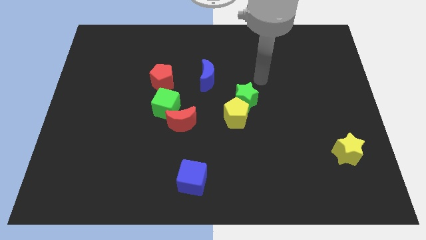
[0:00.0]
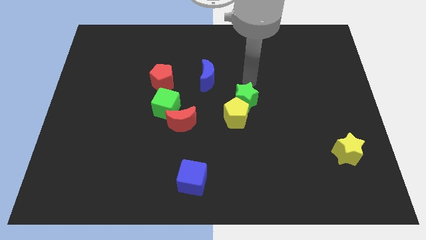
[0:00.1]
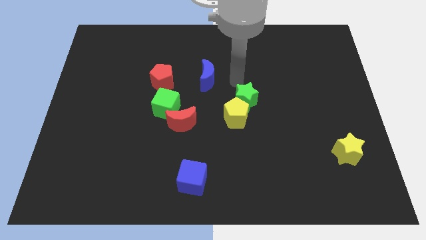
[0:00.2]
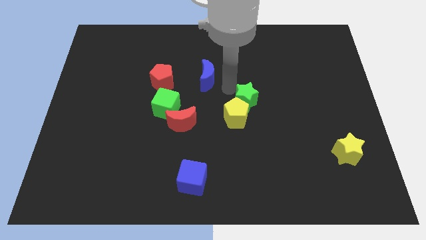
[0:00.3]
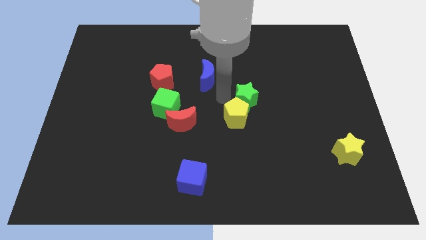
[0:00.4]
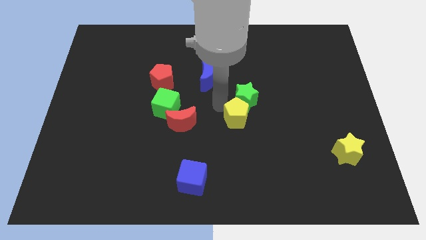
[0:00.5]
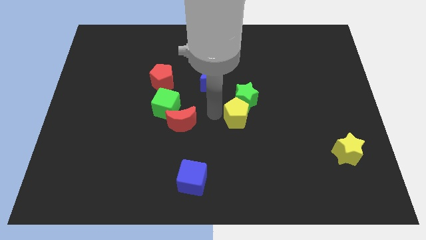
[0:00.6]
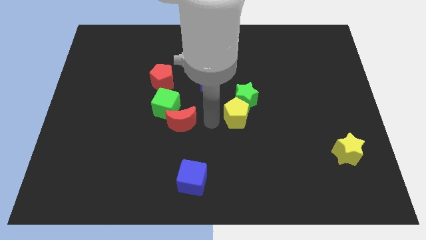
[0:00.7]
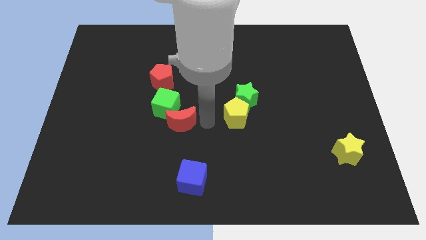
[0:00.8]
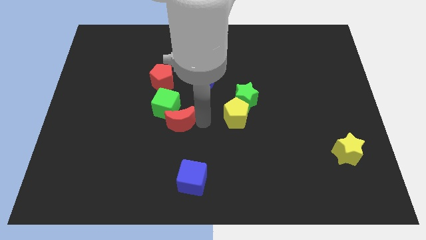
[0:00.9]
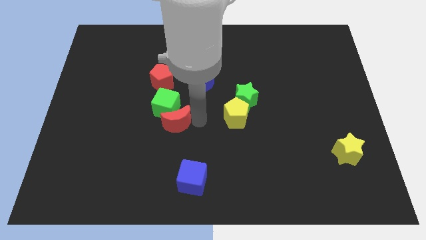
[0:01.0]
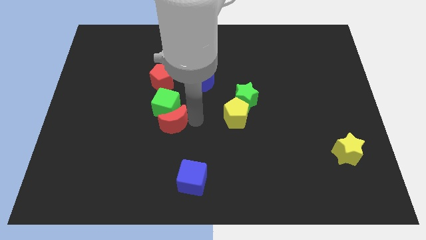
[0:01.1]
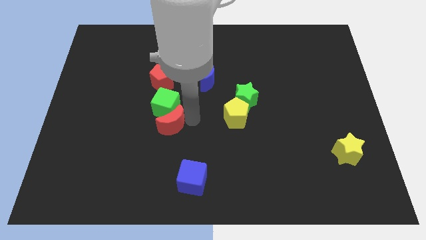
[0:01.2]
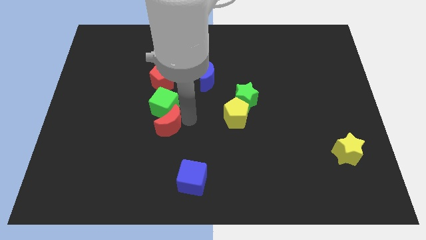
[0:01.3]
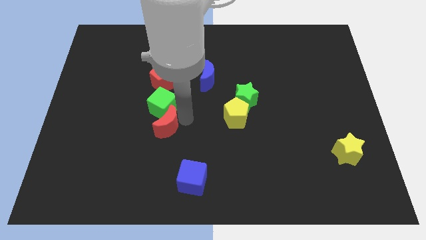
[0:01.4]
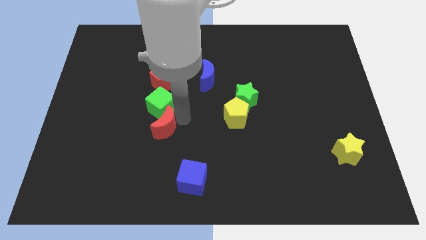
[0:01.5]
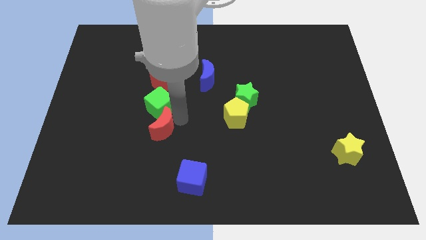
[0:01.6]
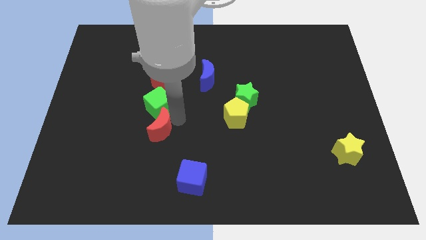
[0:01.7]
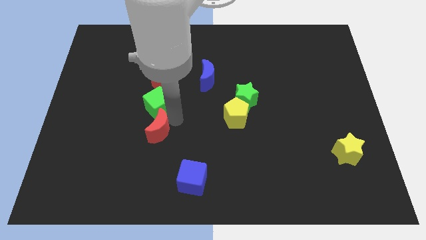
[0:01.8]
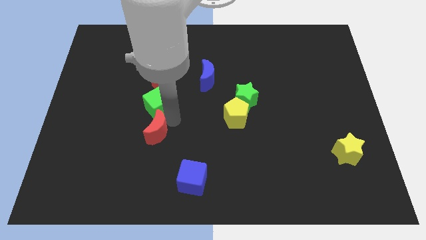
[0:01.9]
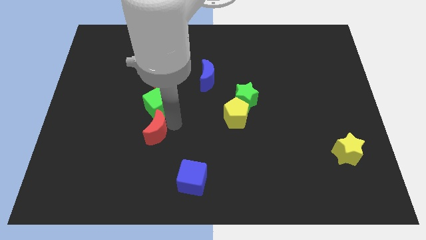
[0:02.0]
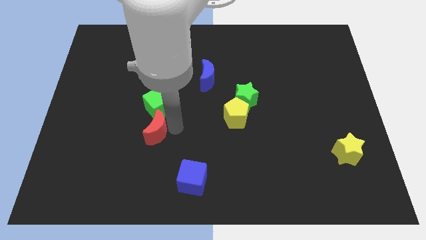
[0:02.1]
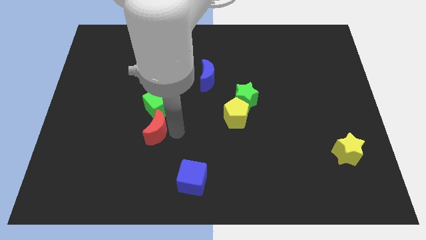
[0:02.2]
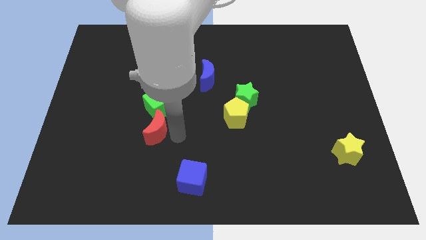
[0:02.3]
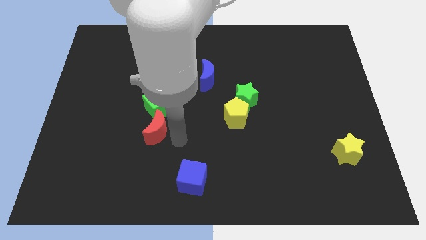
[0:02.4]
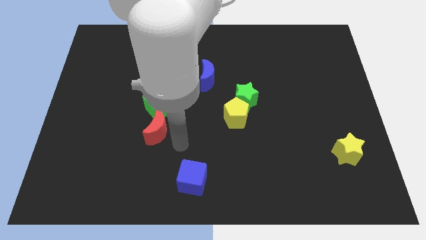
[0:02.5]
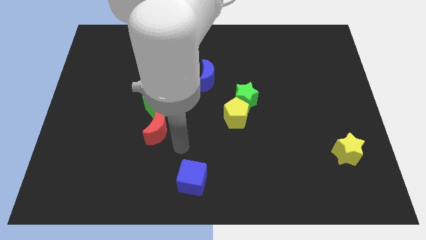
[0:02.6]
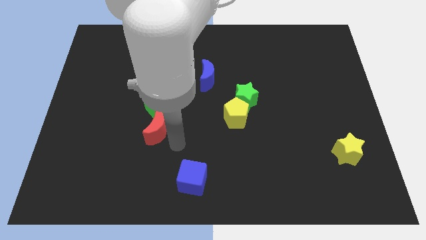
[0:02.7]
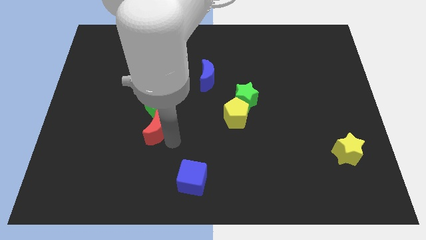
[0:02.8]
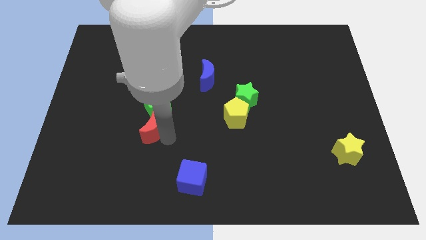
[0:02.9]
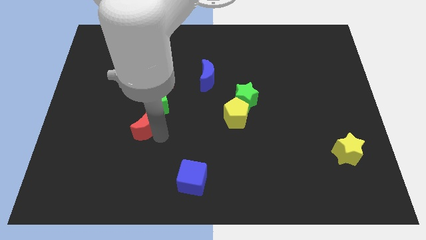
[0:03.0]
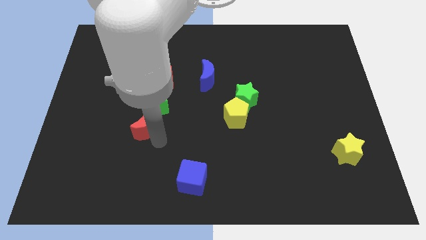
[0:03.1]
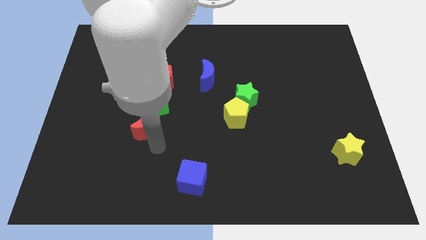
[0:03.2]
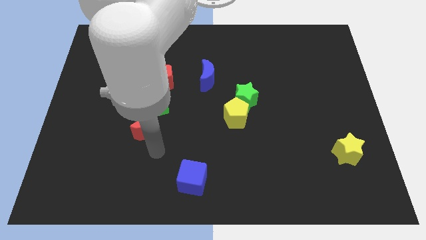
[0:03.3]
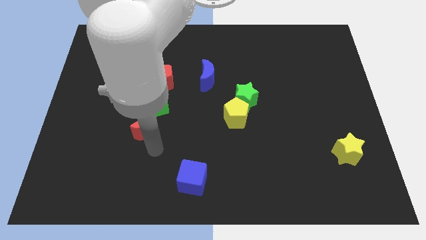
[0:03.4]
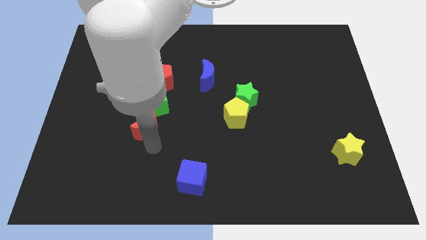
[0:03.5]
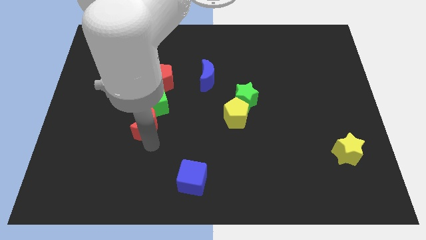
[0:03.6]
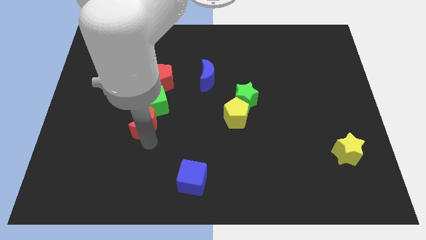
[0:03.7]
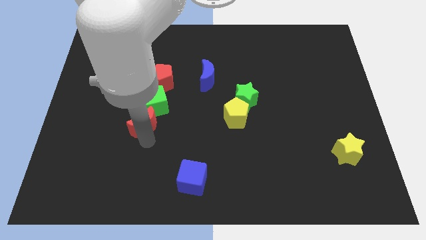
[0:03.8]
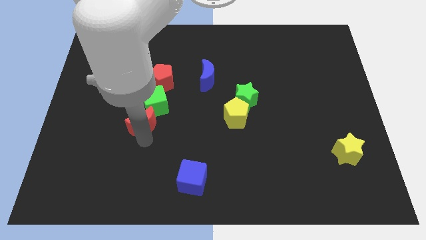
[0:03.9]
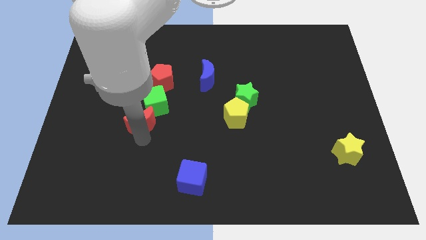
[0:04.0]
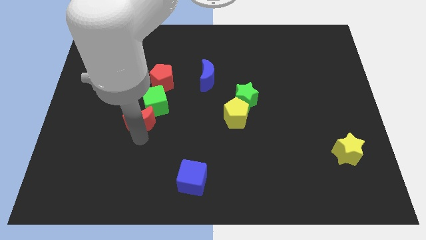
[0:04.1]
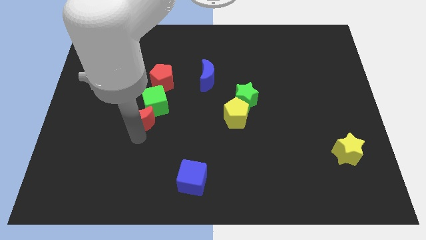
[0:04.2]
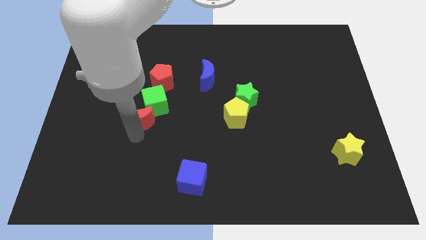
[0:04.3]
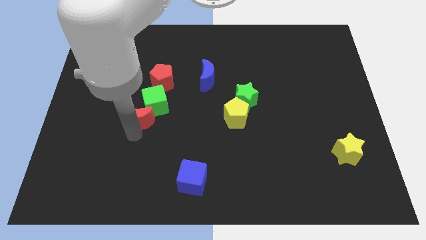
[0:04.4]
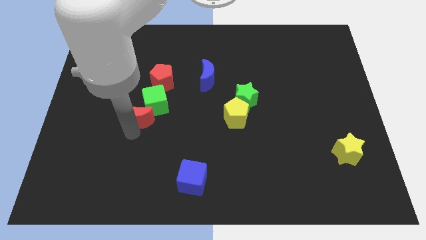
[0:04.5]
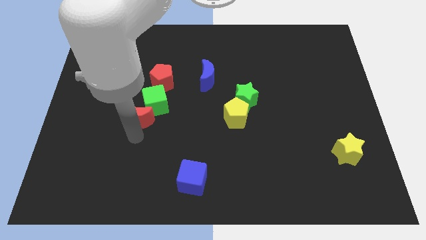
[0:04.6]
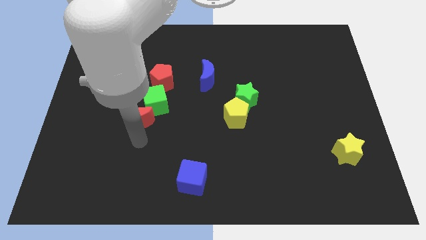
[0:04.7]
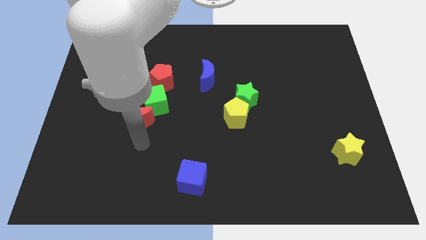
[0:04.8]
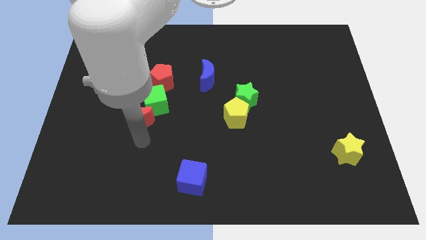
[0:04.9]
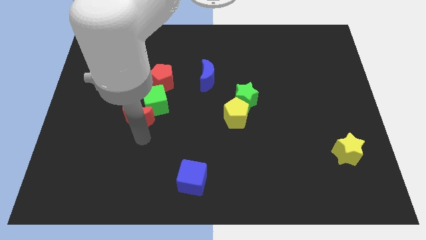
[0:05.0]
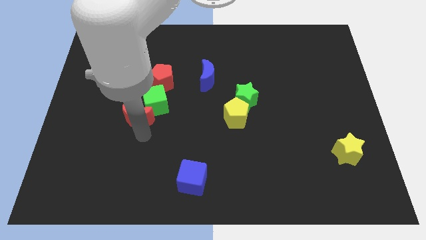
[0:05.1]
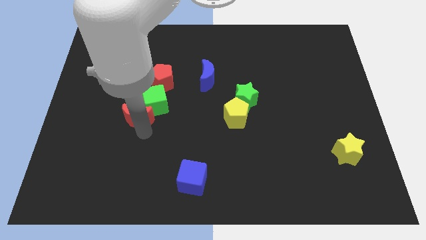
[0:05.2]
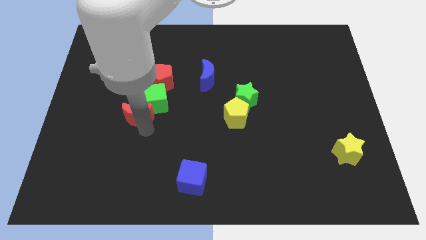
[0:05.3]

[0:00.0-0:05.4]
slide the red moon upwards and left a little

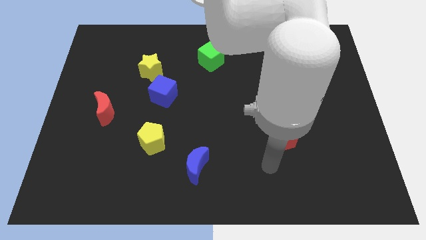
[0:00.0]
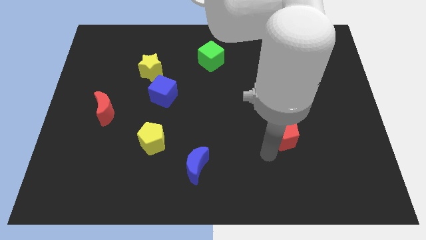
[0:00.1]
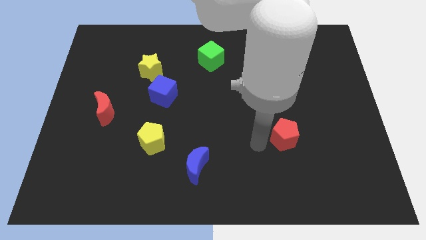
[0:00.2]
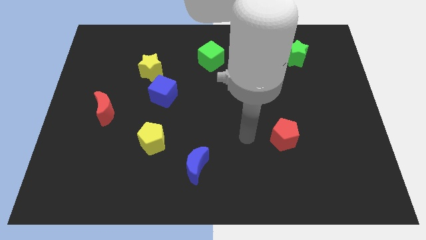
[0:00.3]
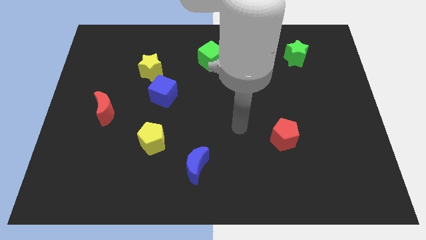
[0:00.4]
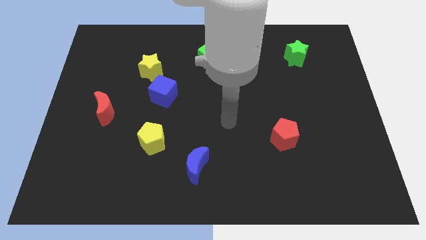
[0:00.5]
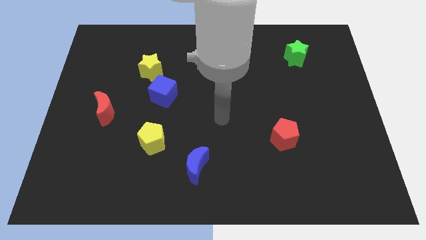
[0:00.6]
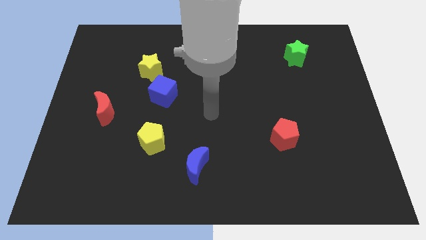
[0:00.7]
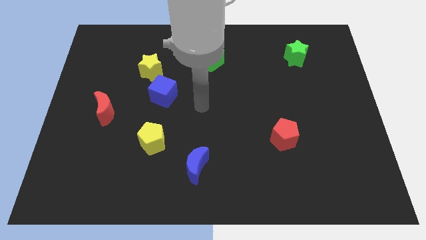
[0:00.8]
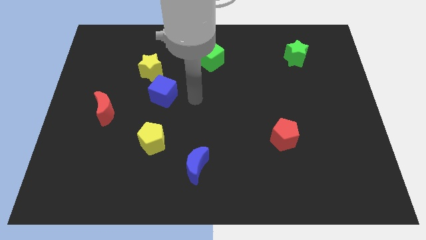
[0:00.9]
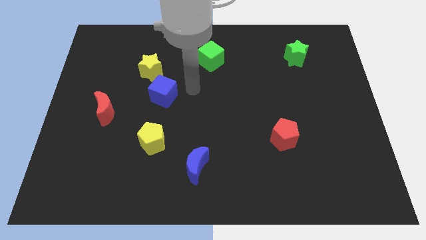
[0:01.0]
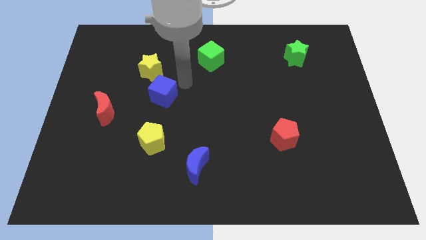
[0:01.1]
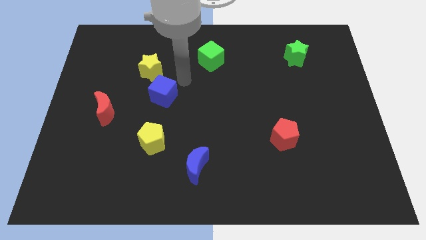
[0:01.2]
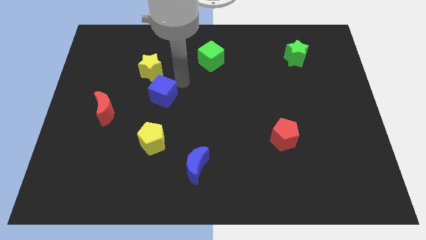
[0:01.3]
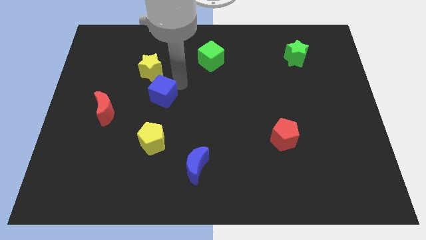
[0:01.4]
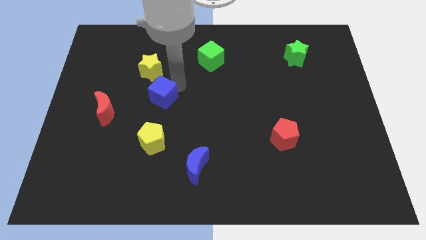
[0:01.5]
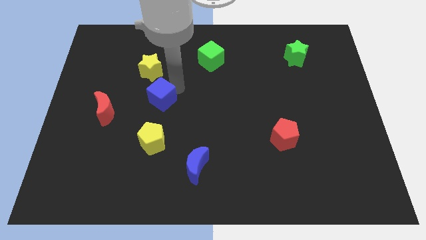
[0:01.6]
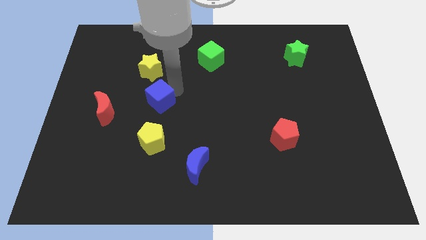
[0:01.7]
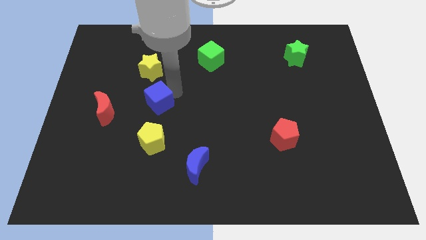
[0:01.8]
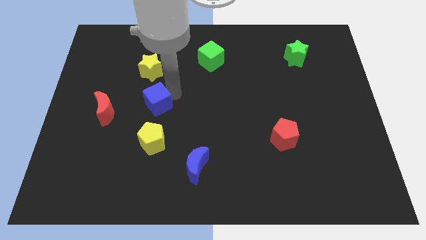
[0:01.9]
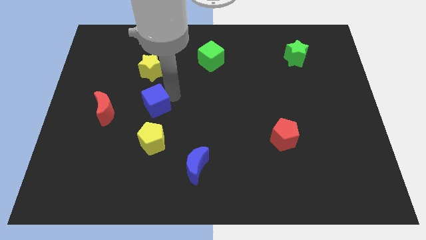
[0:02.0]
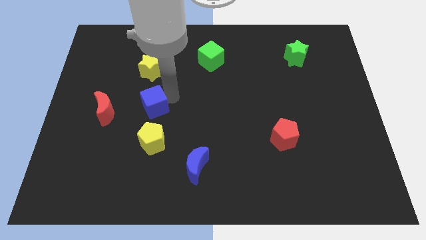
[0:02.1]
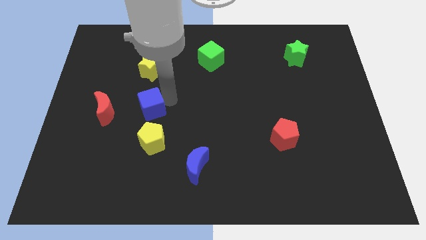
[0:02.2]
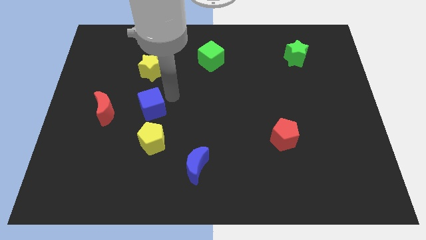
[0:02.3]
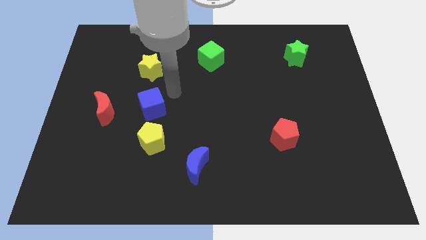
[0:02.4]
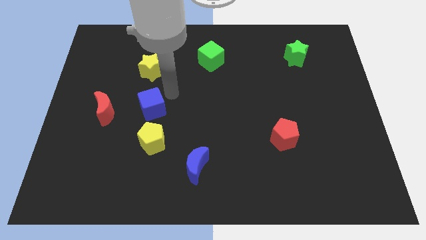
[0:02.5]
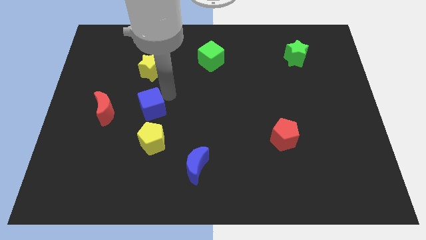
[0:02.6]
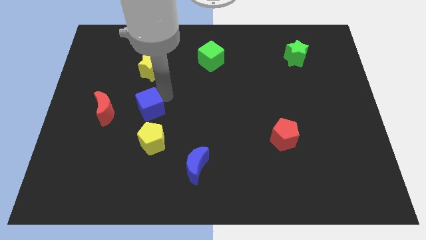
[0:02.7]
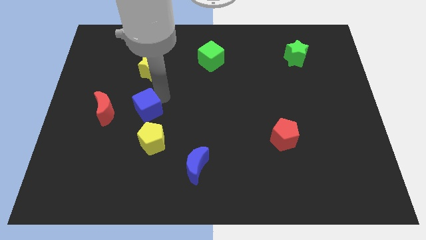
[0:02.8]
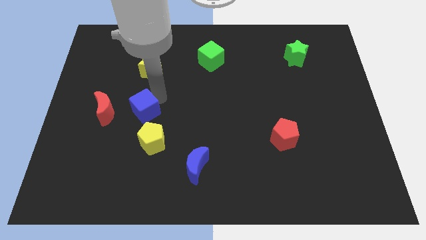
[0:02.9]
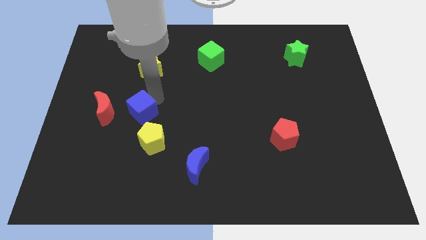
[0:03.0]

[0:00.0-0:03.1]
slightly move the blue cube diagonally down and to the left
